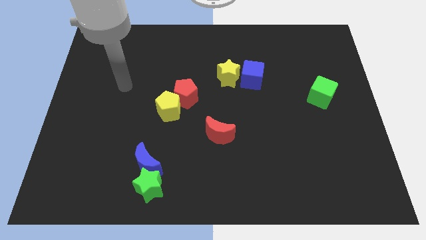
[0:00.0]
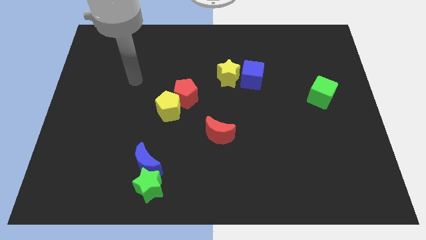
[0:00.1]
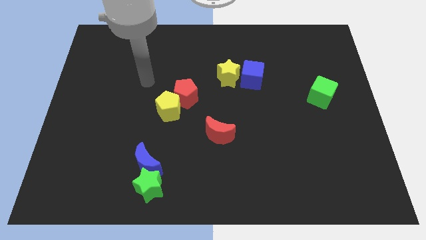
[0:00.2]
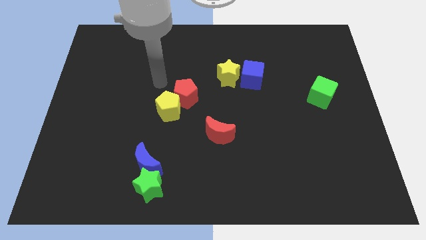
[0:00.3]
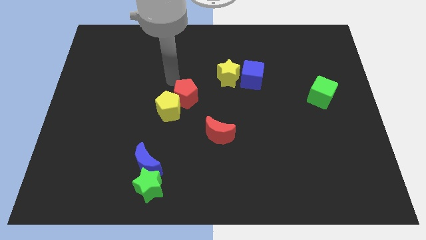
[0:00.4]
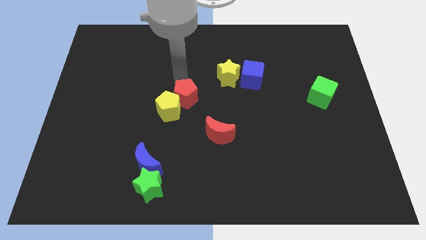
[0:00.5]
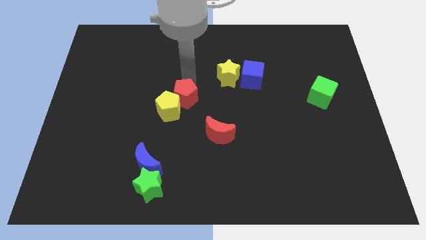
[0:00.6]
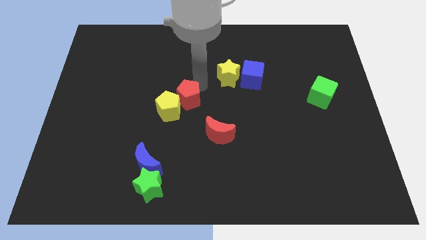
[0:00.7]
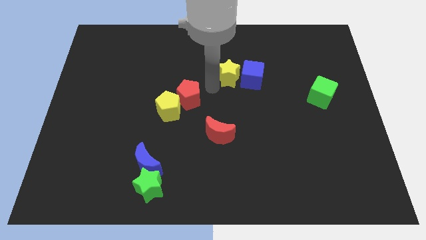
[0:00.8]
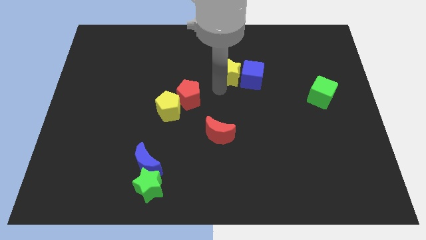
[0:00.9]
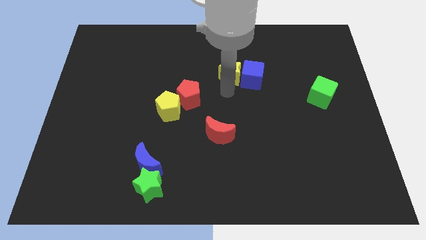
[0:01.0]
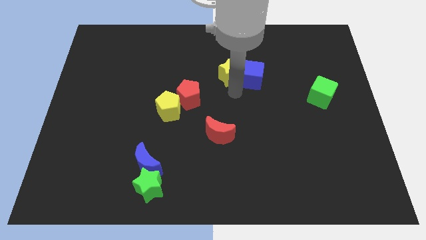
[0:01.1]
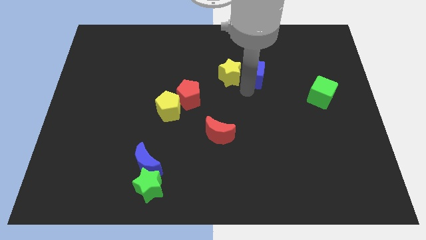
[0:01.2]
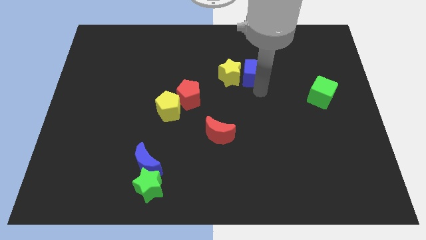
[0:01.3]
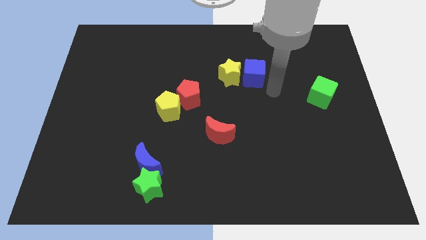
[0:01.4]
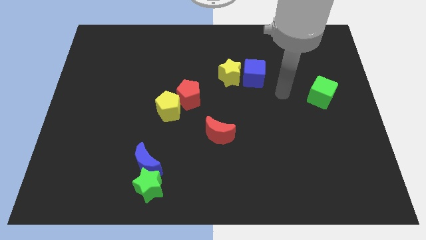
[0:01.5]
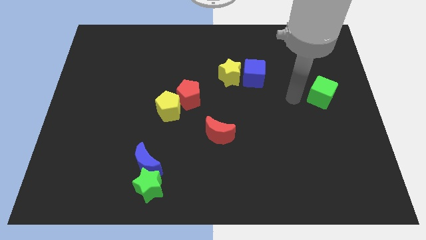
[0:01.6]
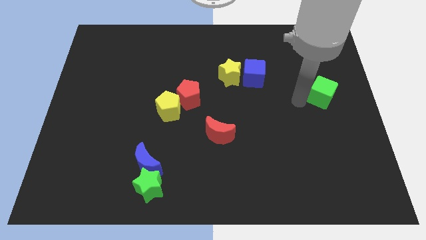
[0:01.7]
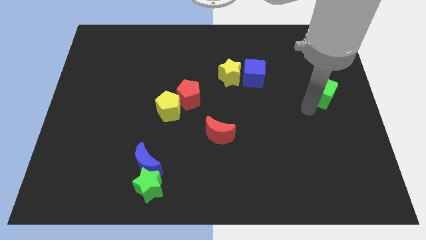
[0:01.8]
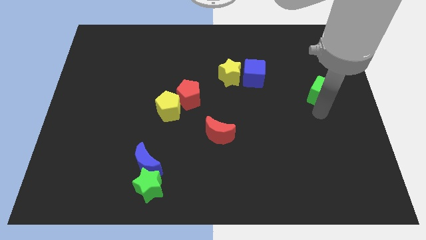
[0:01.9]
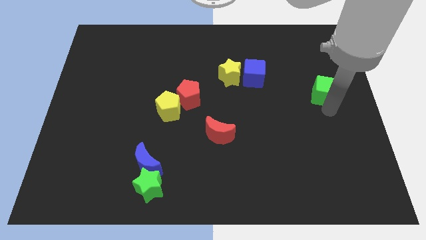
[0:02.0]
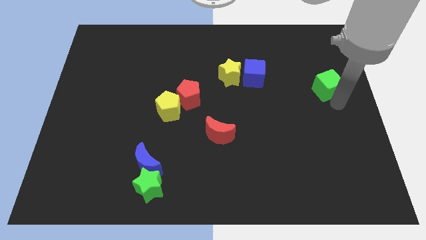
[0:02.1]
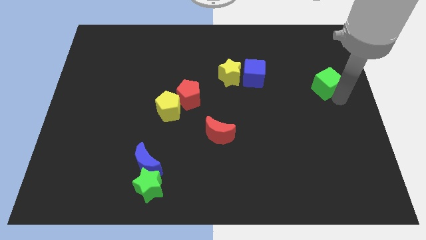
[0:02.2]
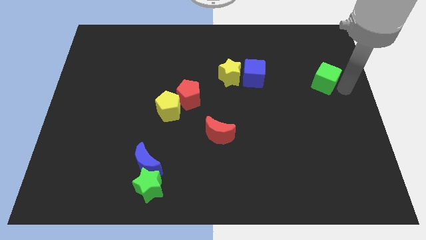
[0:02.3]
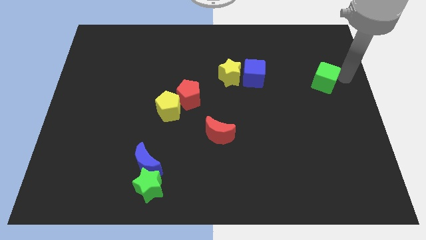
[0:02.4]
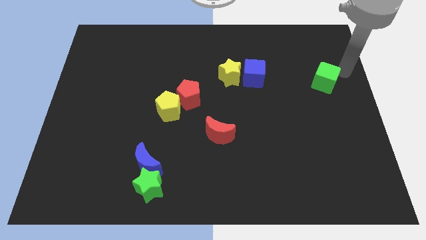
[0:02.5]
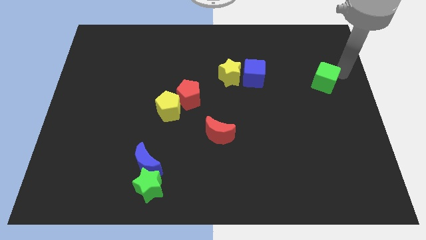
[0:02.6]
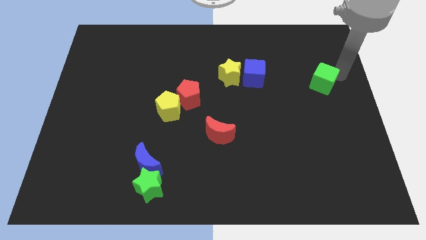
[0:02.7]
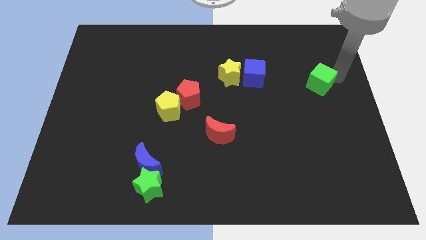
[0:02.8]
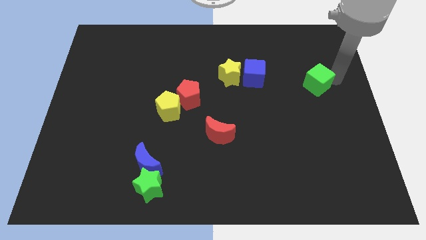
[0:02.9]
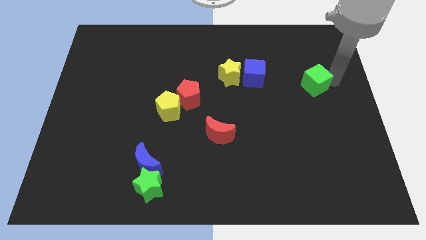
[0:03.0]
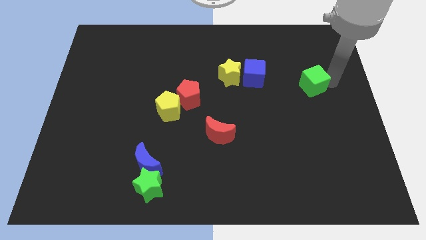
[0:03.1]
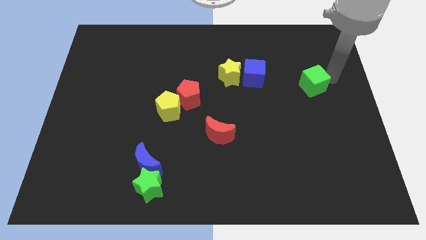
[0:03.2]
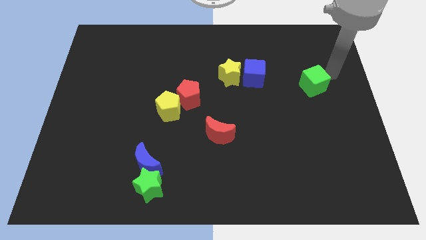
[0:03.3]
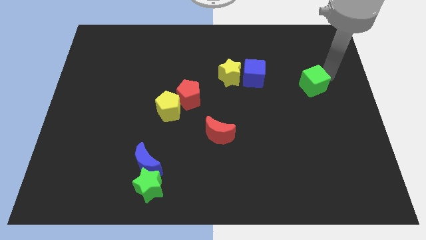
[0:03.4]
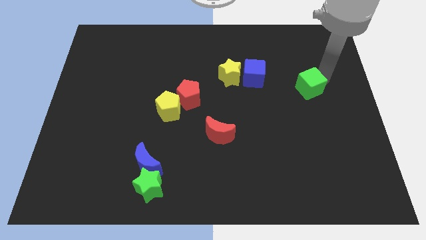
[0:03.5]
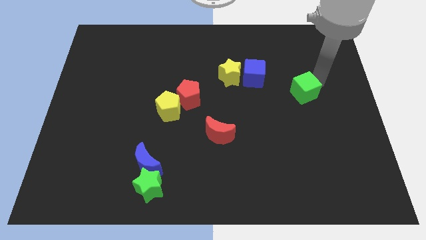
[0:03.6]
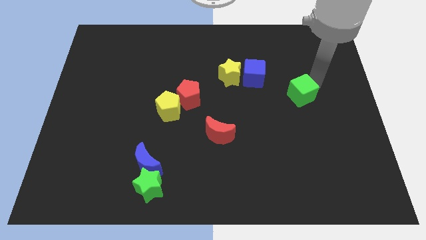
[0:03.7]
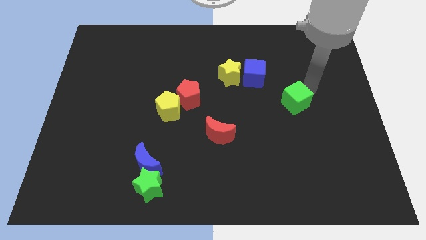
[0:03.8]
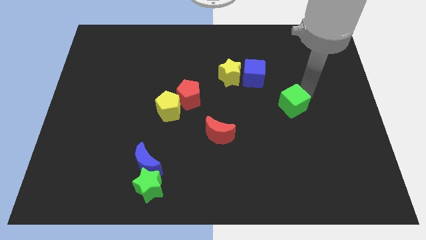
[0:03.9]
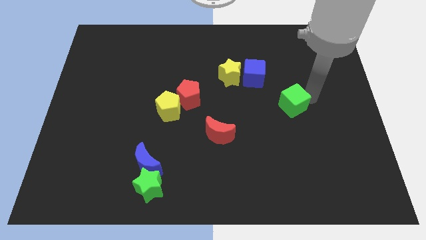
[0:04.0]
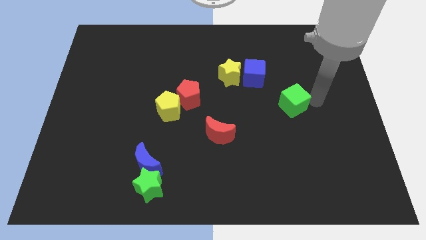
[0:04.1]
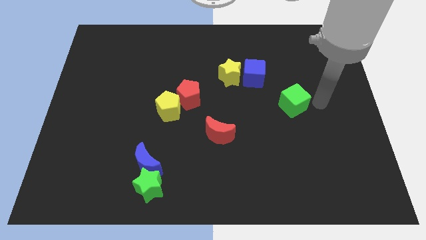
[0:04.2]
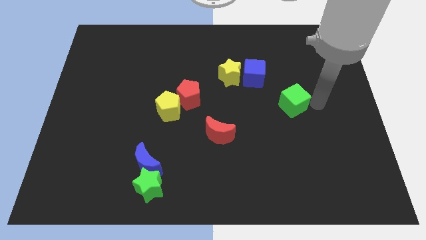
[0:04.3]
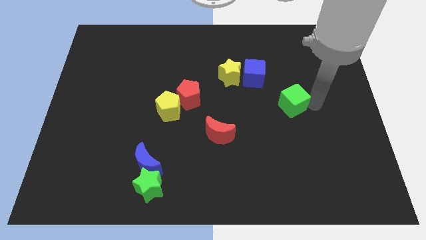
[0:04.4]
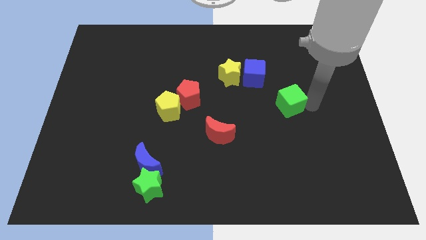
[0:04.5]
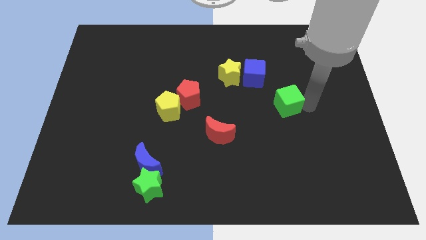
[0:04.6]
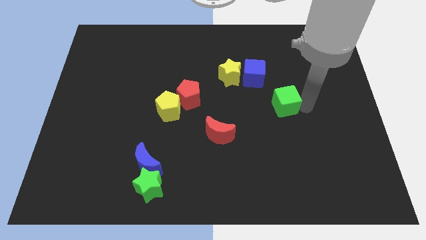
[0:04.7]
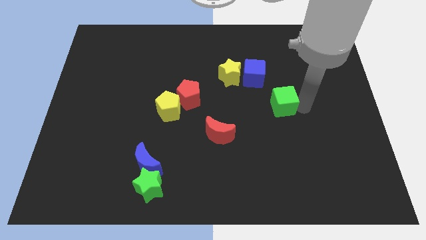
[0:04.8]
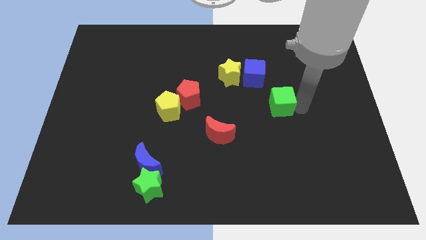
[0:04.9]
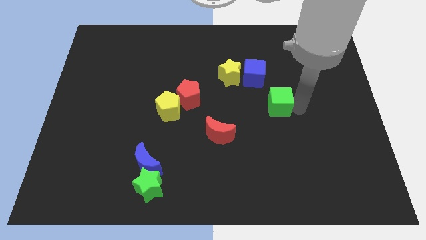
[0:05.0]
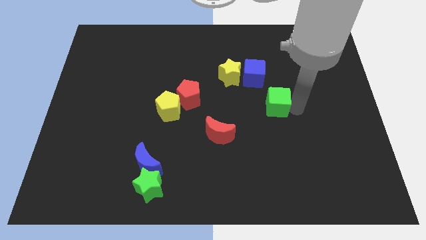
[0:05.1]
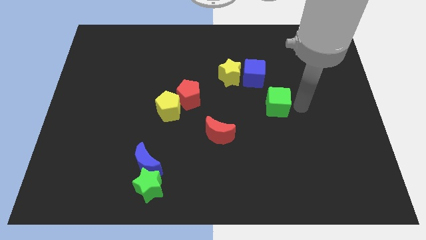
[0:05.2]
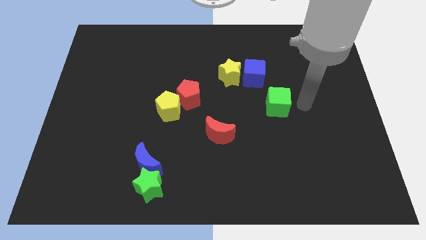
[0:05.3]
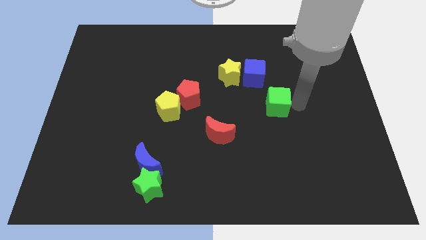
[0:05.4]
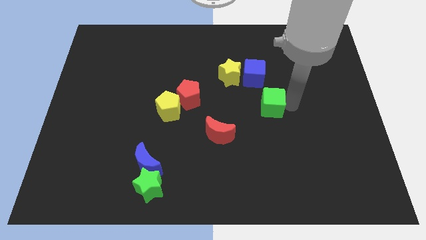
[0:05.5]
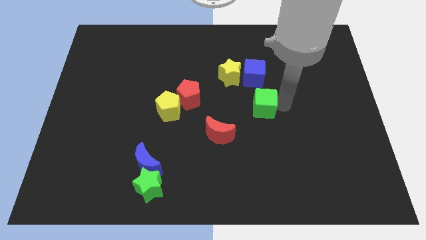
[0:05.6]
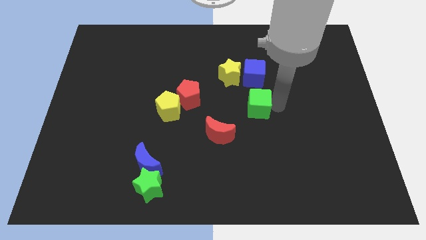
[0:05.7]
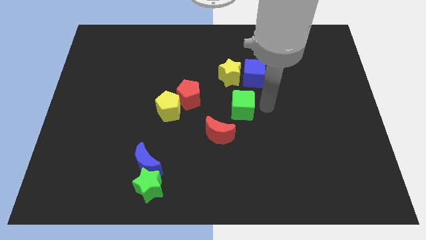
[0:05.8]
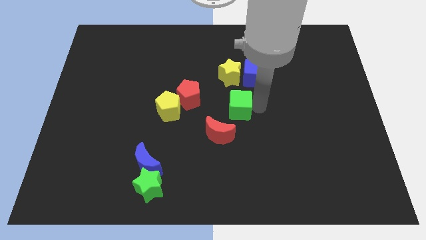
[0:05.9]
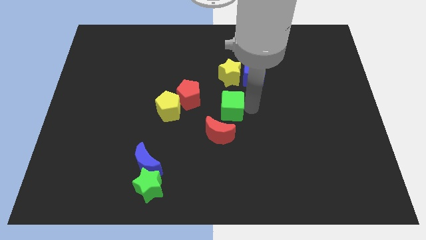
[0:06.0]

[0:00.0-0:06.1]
slide the green cube to the right side of the yellow pentagon
